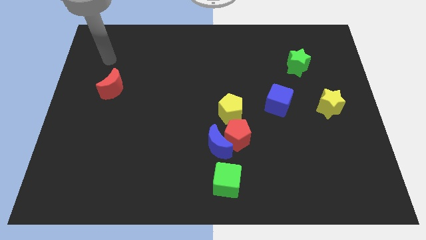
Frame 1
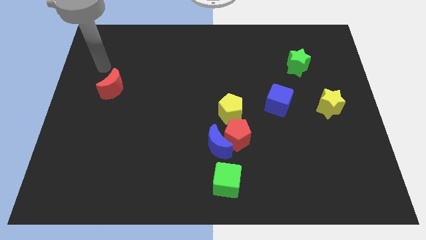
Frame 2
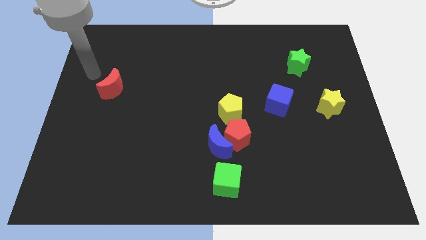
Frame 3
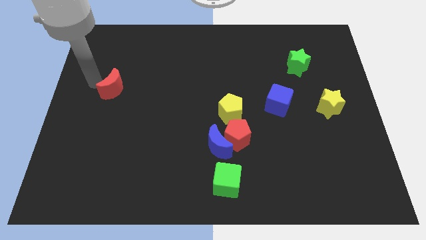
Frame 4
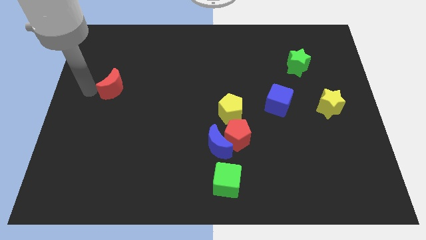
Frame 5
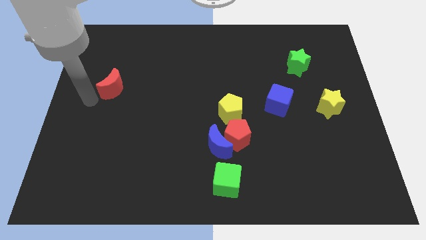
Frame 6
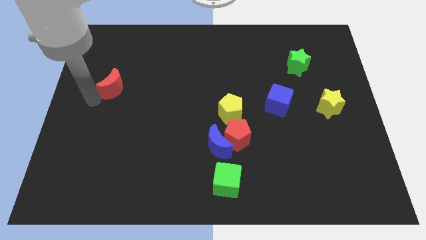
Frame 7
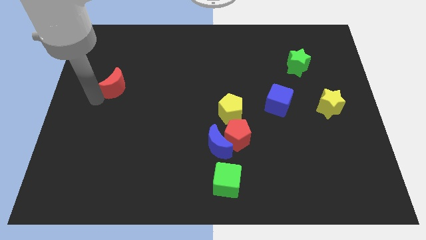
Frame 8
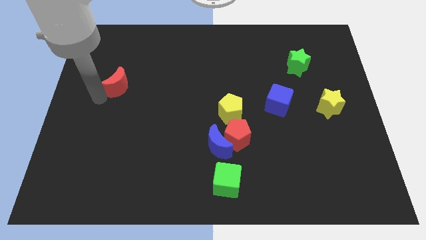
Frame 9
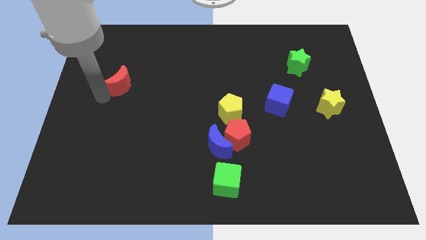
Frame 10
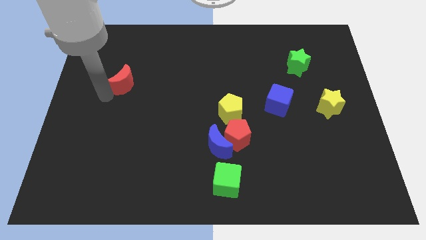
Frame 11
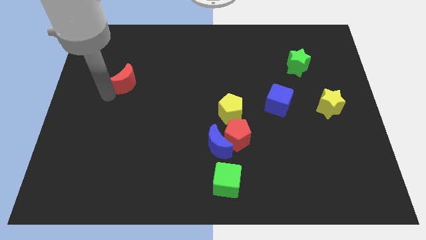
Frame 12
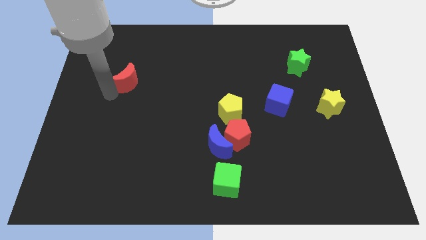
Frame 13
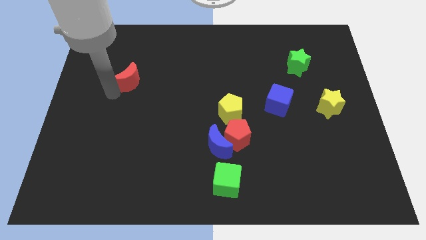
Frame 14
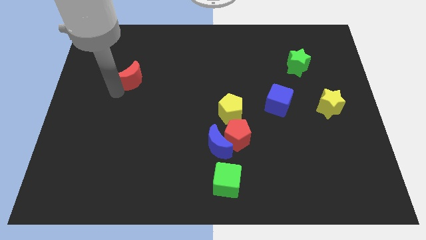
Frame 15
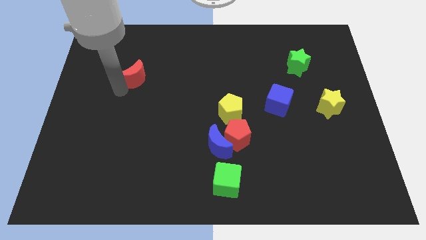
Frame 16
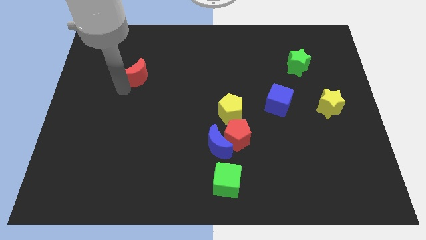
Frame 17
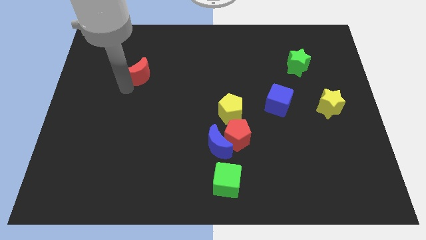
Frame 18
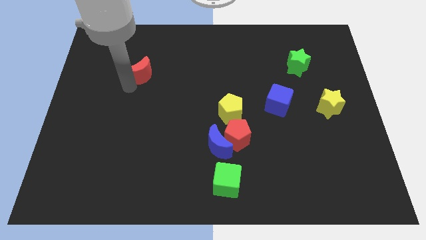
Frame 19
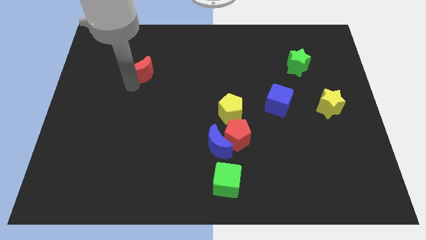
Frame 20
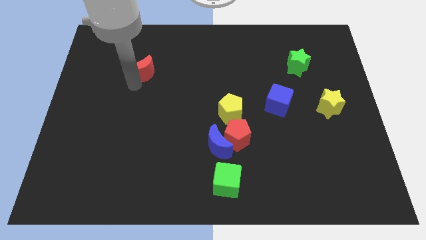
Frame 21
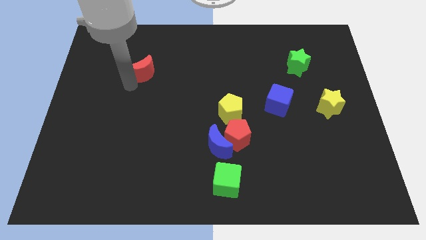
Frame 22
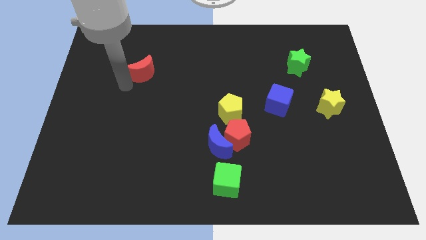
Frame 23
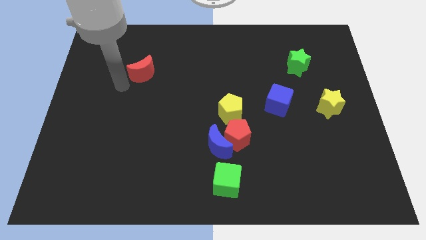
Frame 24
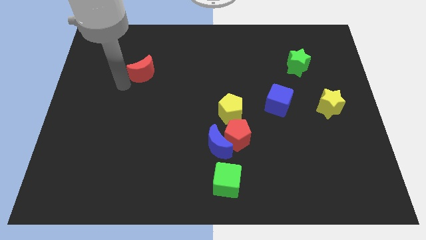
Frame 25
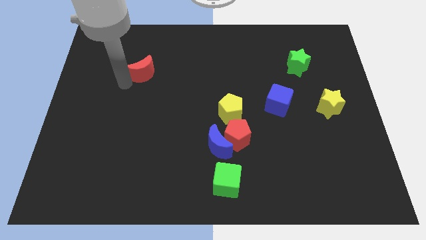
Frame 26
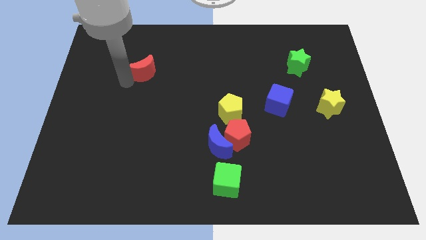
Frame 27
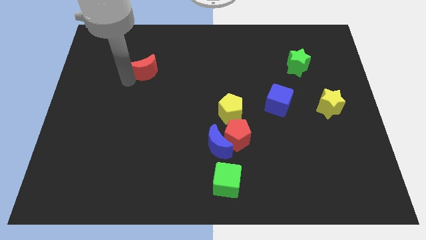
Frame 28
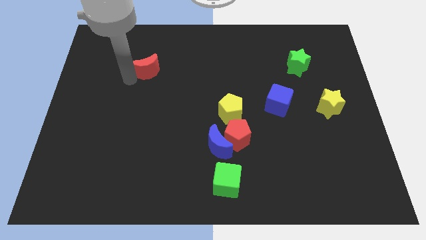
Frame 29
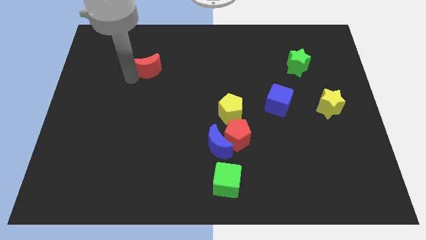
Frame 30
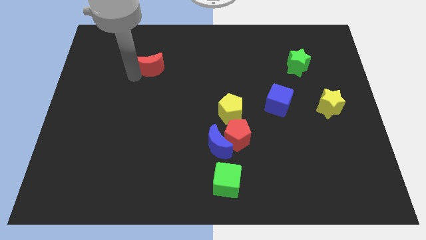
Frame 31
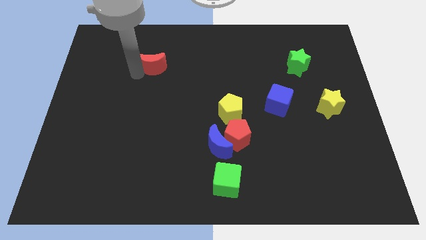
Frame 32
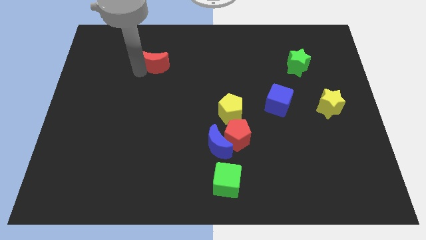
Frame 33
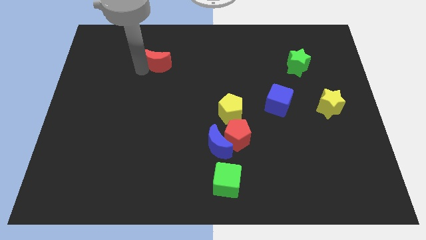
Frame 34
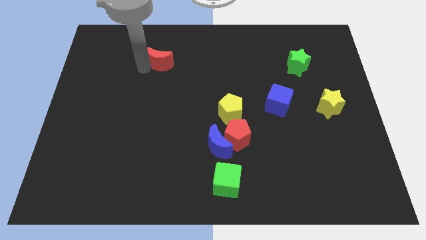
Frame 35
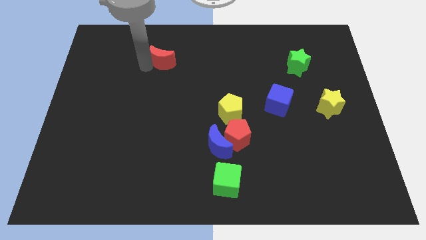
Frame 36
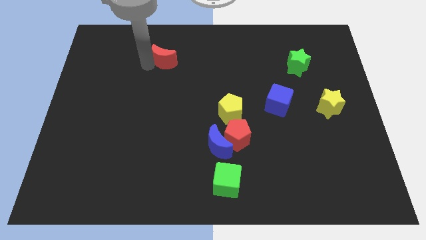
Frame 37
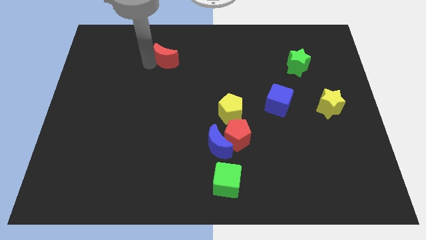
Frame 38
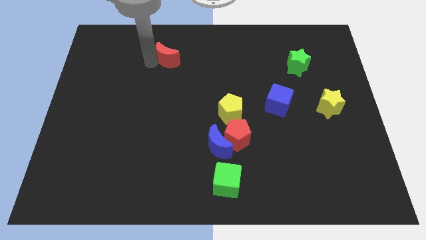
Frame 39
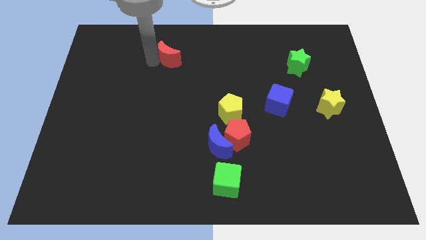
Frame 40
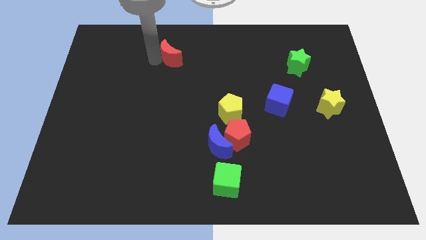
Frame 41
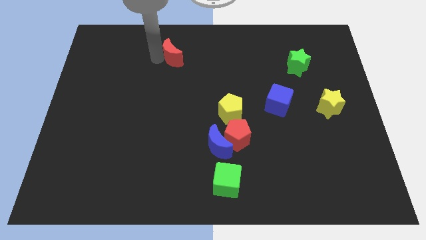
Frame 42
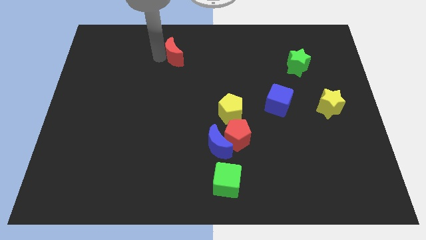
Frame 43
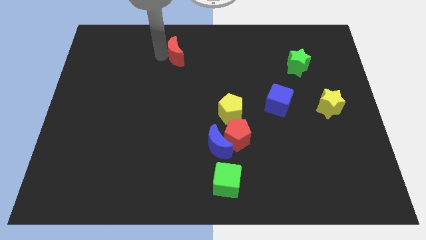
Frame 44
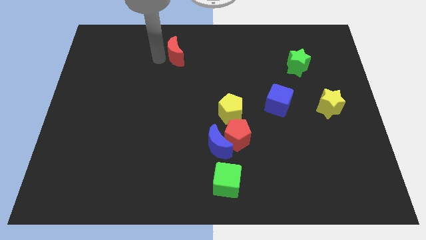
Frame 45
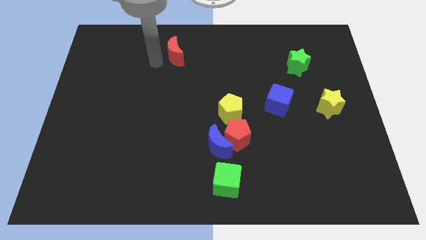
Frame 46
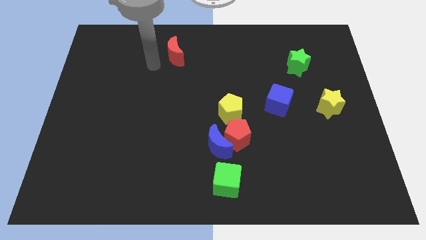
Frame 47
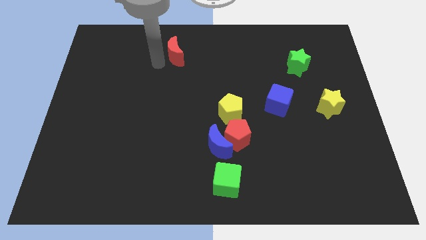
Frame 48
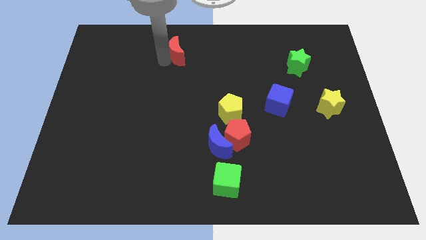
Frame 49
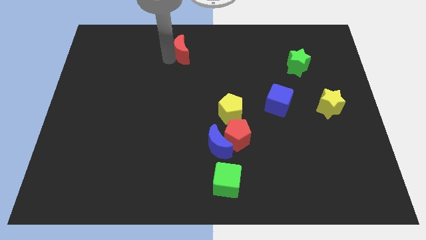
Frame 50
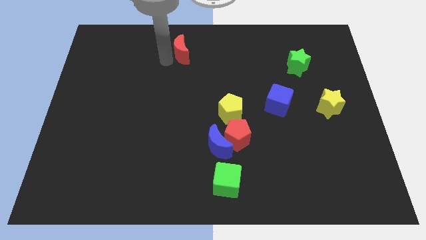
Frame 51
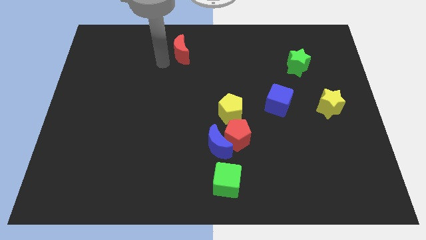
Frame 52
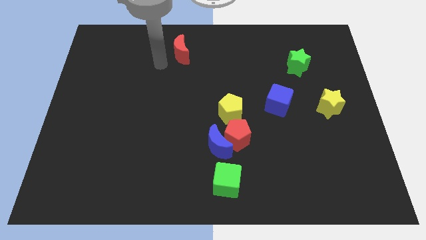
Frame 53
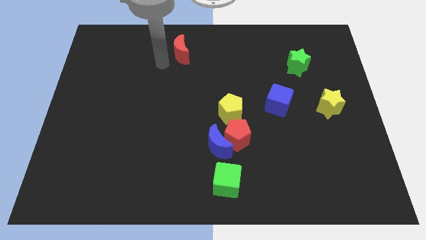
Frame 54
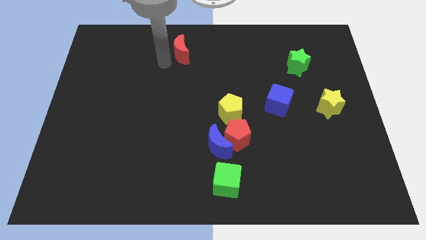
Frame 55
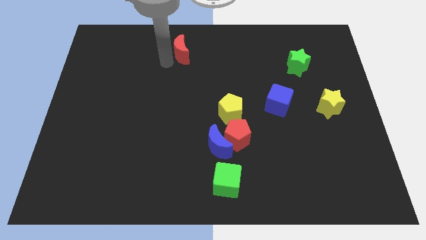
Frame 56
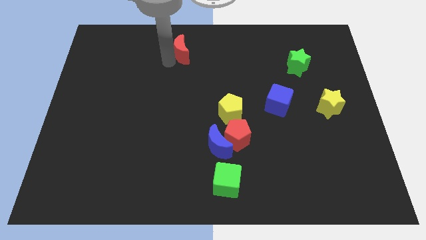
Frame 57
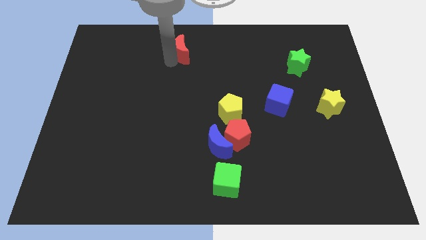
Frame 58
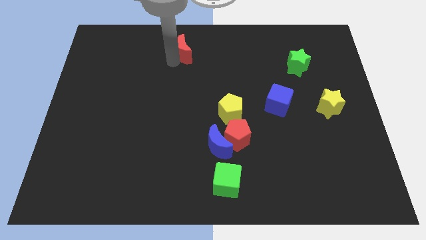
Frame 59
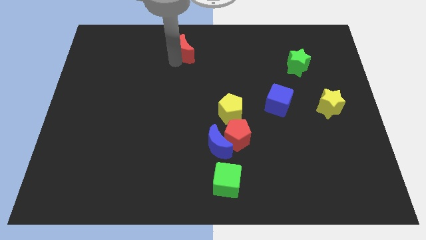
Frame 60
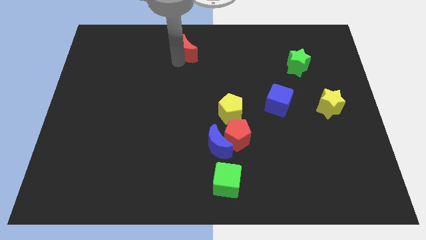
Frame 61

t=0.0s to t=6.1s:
put the red moon to the towards your base

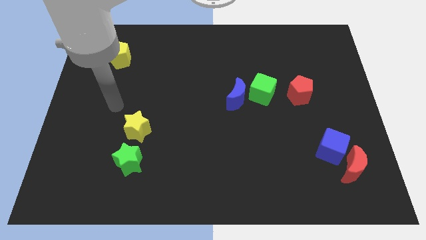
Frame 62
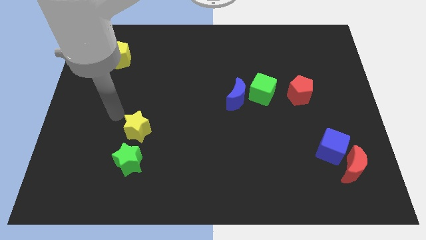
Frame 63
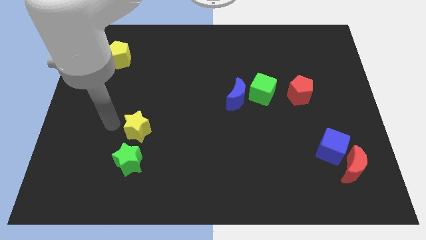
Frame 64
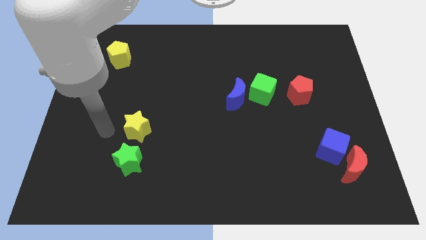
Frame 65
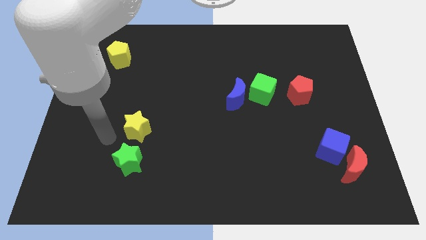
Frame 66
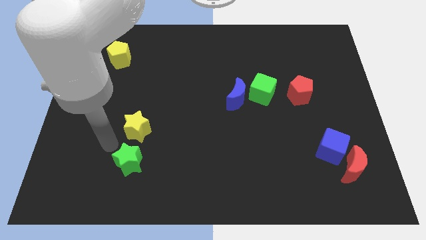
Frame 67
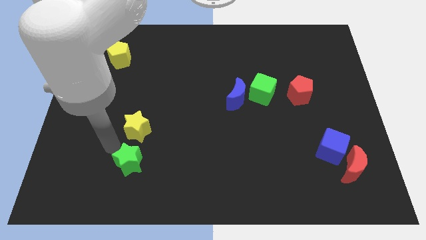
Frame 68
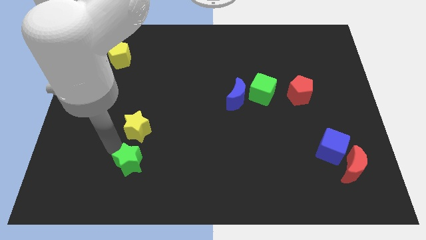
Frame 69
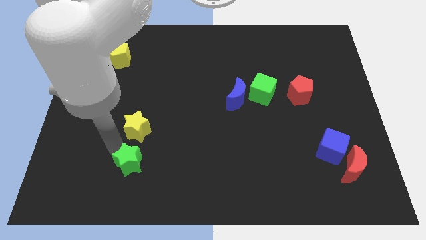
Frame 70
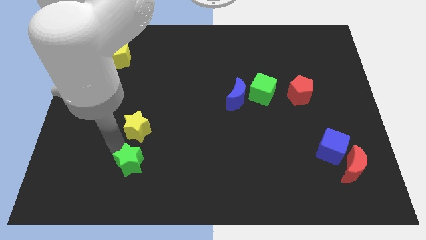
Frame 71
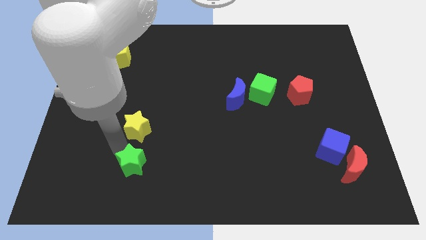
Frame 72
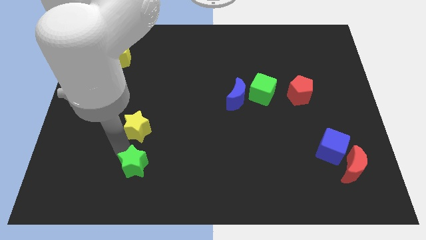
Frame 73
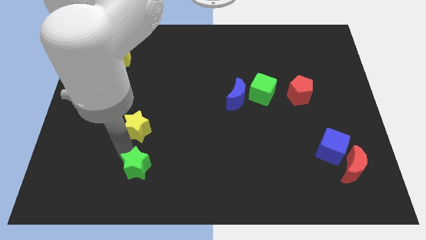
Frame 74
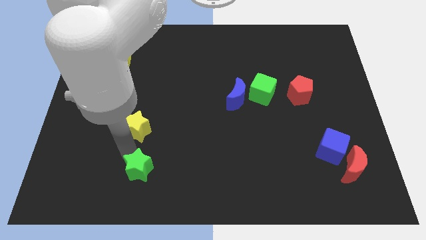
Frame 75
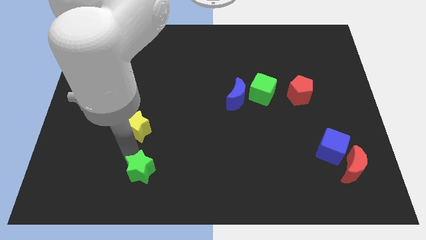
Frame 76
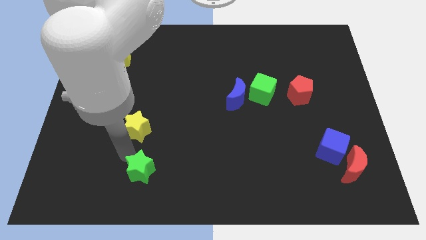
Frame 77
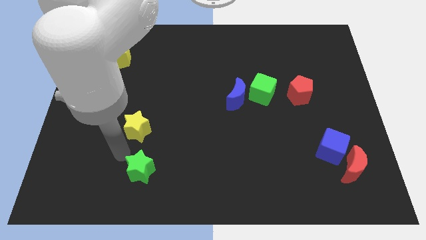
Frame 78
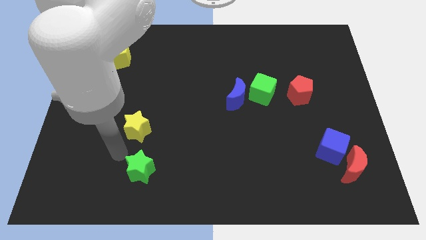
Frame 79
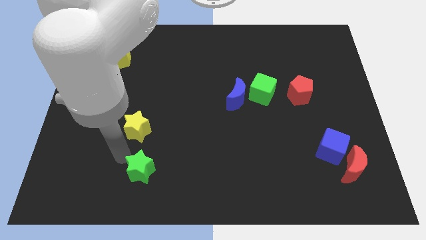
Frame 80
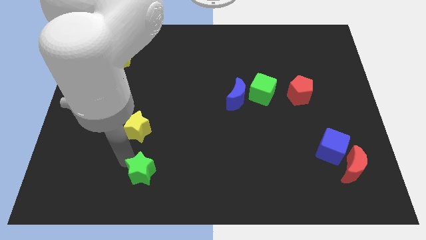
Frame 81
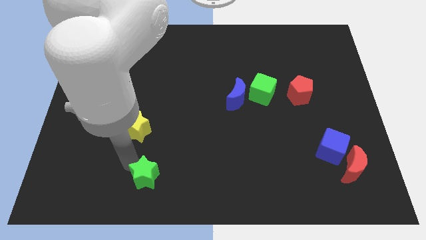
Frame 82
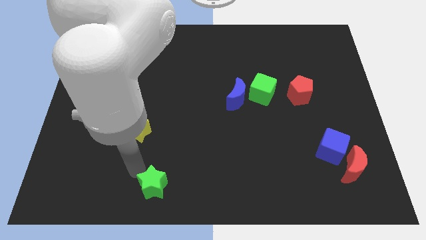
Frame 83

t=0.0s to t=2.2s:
move the green star to the bottom
